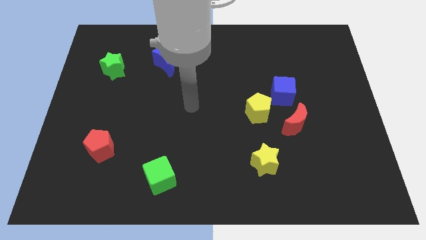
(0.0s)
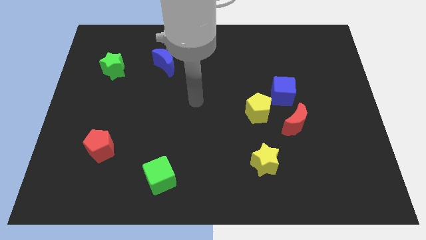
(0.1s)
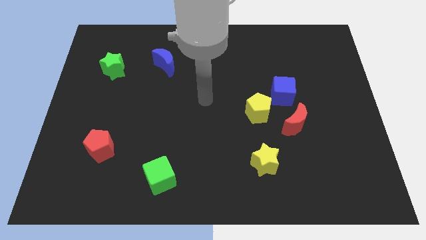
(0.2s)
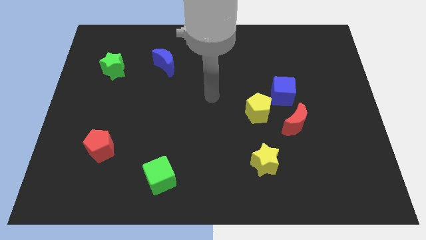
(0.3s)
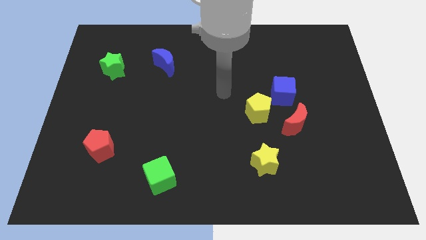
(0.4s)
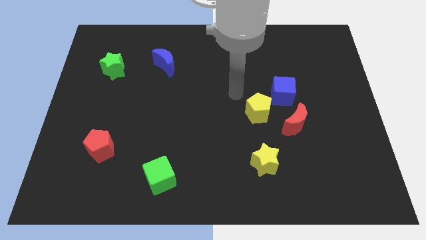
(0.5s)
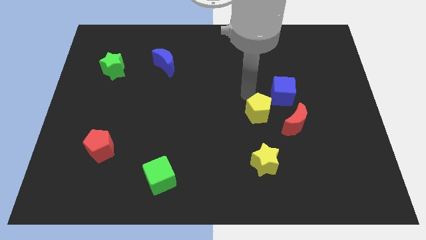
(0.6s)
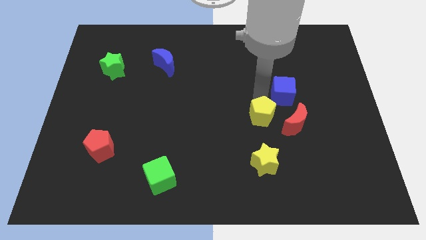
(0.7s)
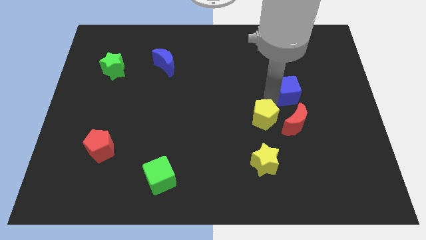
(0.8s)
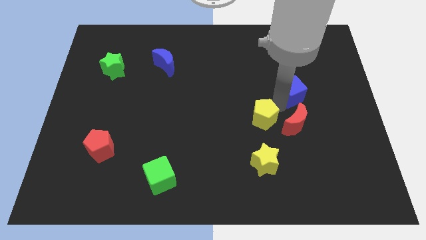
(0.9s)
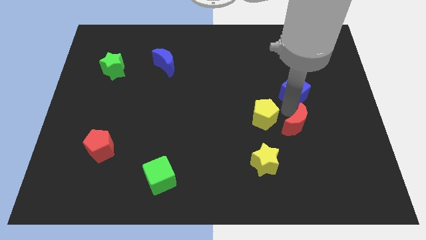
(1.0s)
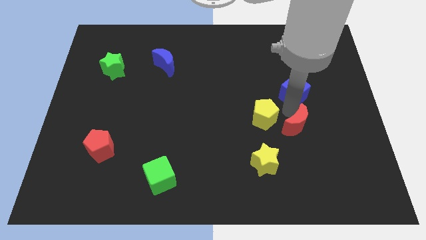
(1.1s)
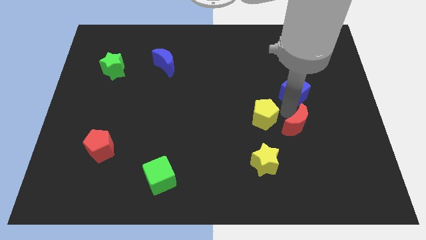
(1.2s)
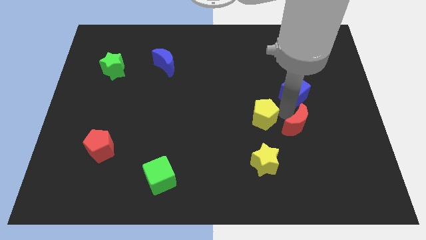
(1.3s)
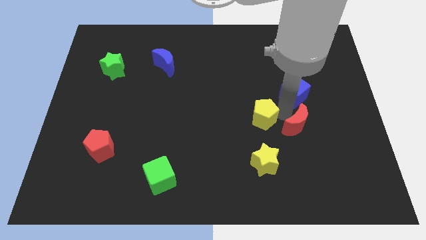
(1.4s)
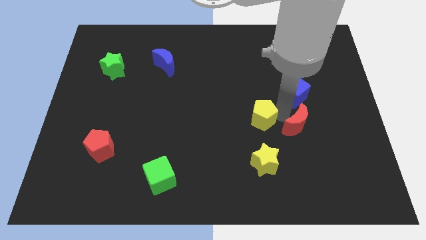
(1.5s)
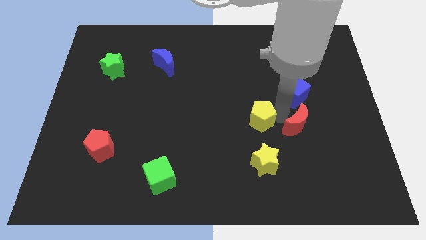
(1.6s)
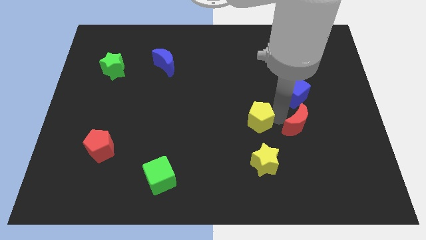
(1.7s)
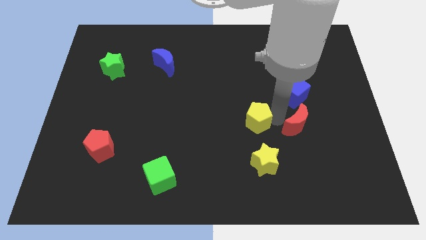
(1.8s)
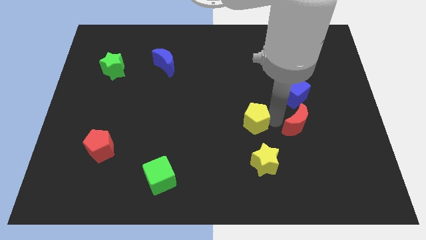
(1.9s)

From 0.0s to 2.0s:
pull the yellow pentagon apart from the blue cube and red moon

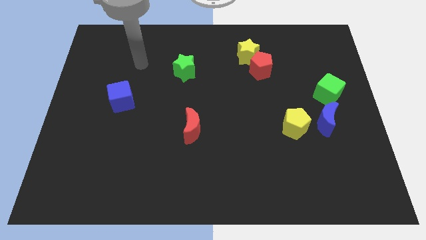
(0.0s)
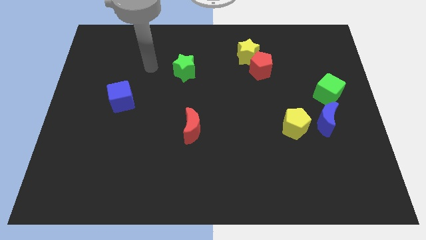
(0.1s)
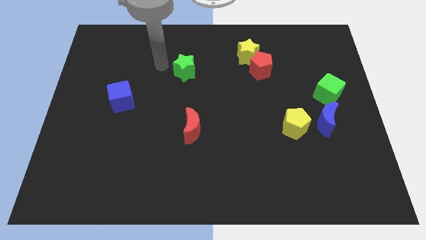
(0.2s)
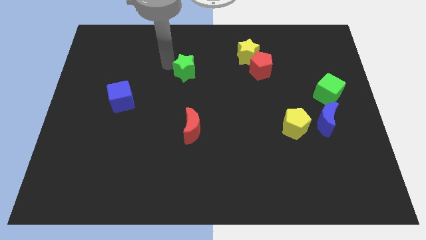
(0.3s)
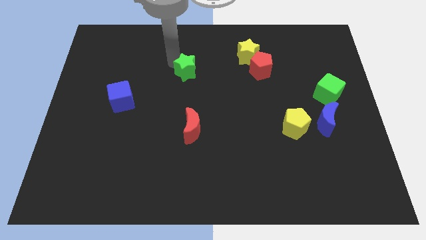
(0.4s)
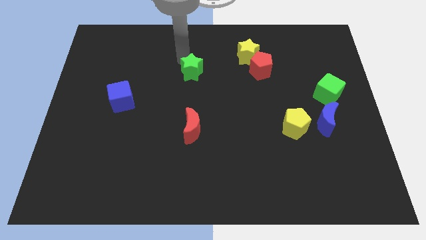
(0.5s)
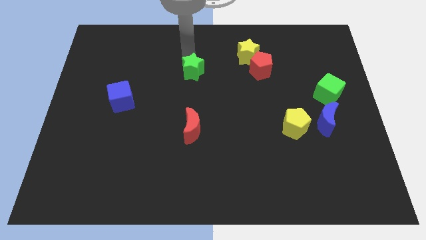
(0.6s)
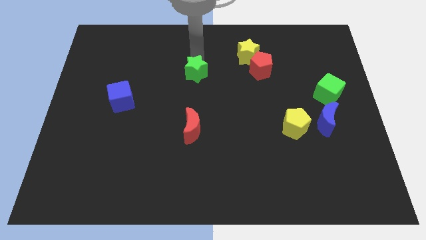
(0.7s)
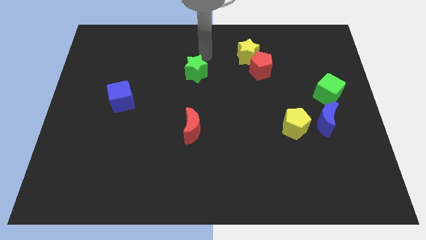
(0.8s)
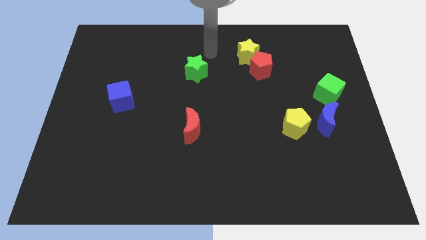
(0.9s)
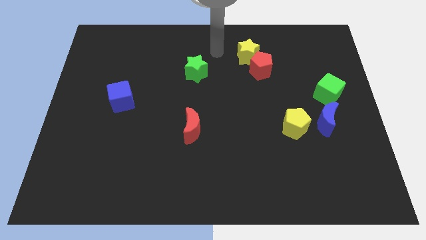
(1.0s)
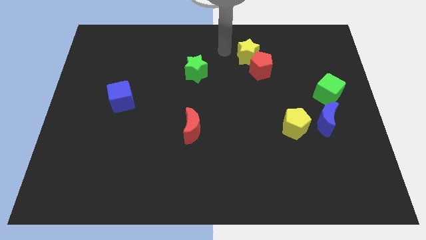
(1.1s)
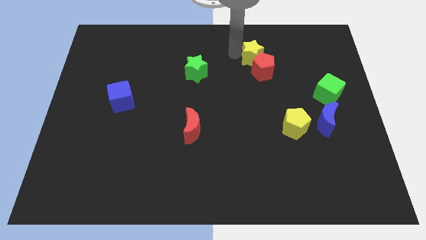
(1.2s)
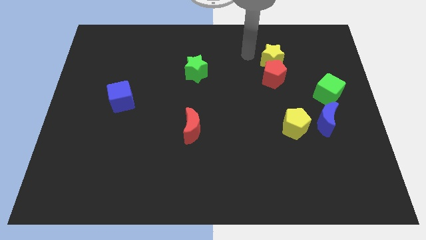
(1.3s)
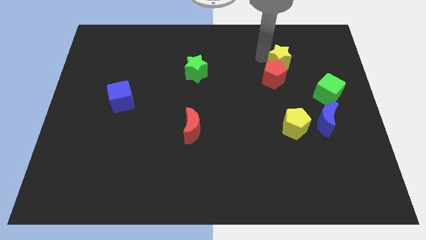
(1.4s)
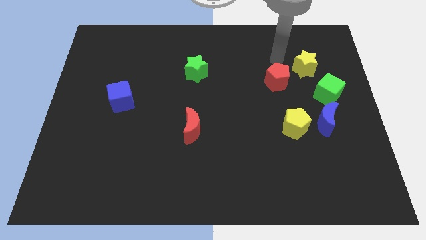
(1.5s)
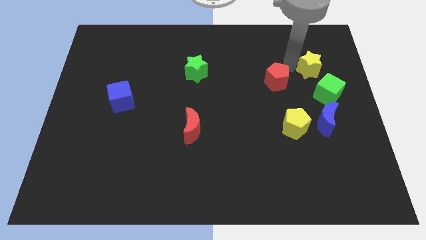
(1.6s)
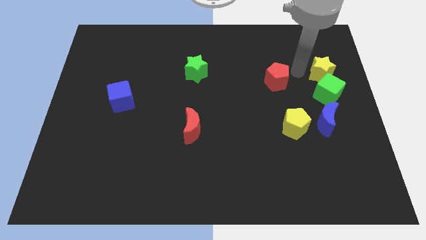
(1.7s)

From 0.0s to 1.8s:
pull the red pentagon apart from the yellow star

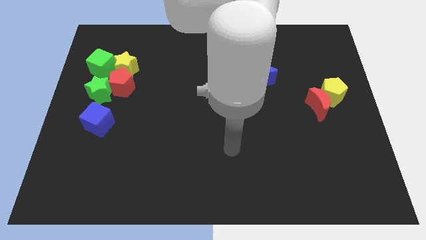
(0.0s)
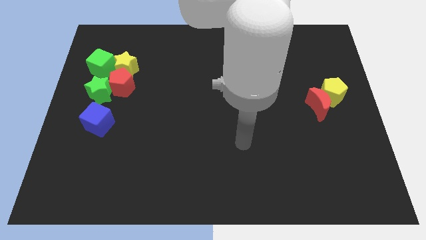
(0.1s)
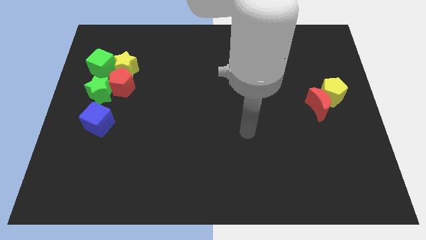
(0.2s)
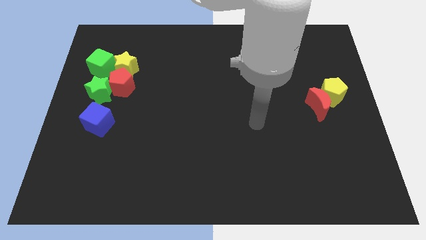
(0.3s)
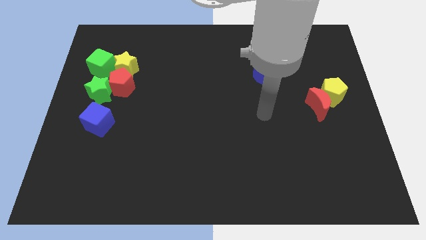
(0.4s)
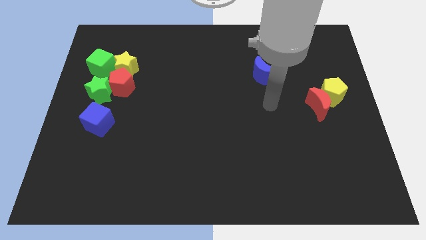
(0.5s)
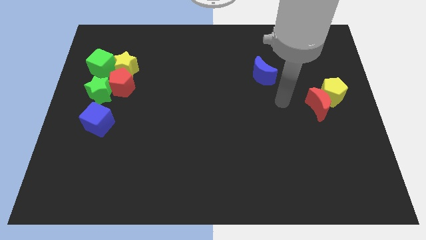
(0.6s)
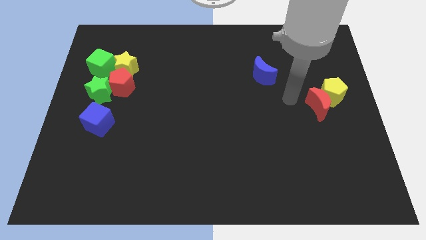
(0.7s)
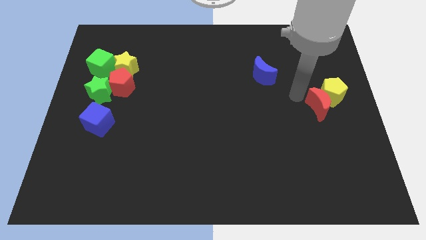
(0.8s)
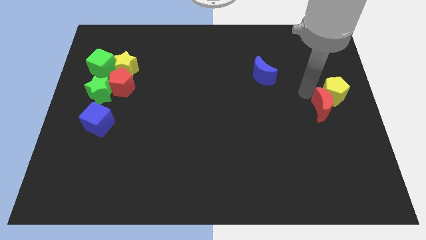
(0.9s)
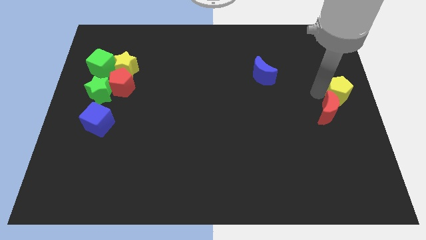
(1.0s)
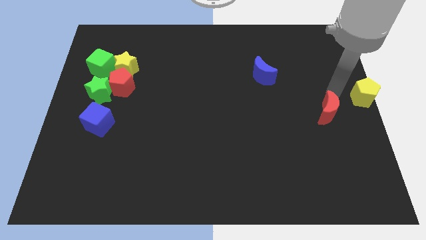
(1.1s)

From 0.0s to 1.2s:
move the red moon away from the yellow pentagon

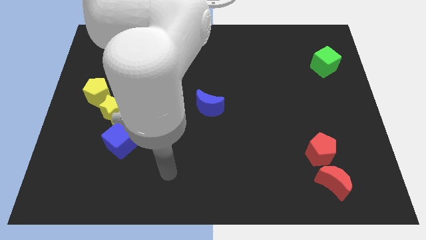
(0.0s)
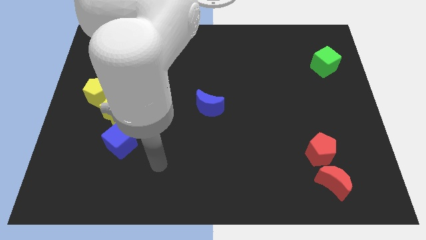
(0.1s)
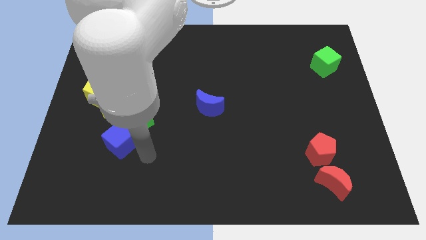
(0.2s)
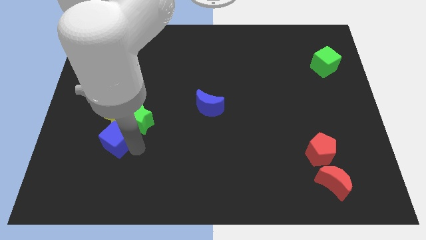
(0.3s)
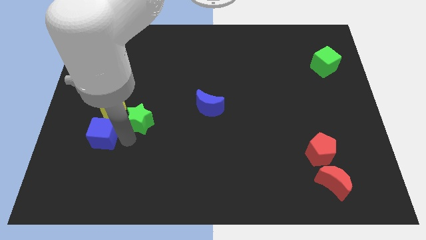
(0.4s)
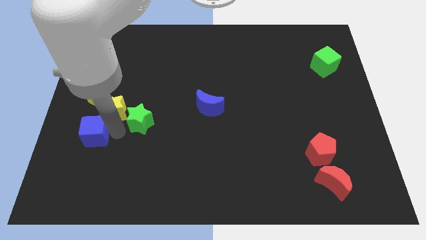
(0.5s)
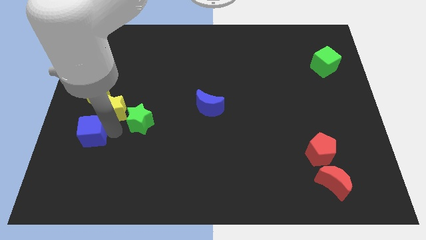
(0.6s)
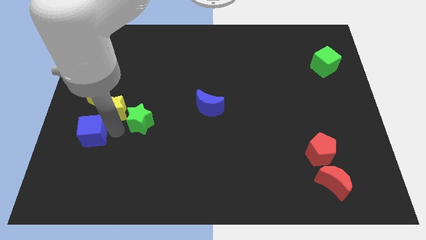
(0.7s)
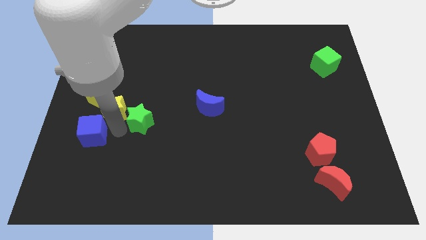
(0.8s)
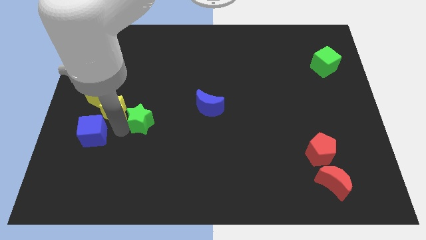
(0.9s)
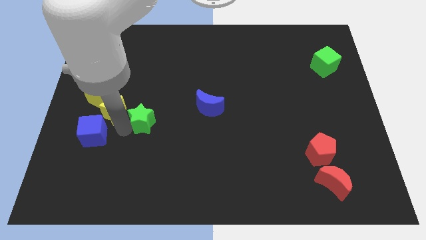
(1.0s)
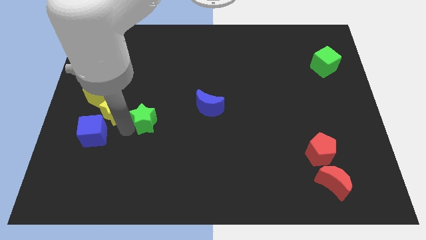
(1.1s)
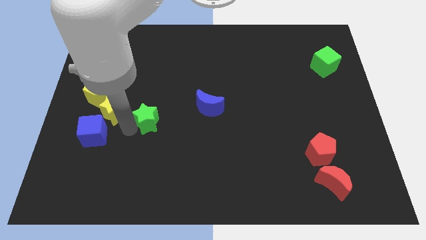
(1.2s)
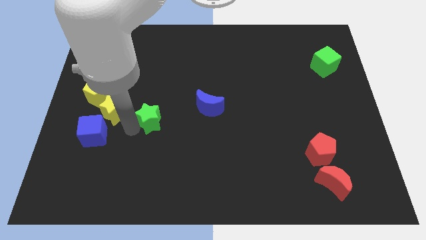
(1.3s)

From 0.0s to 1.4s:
move the green star away from the yellow star and blue cube

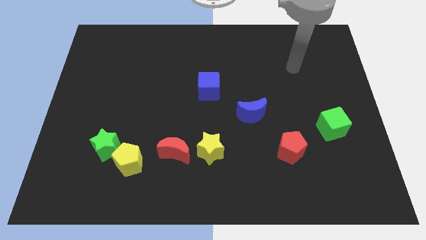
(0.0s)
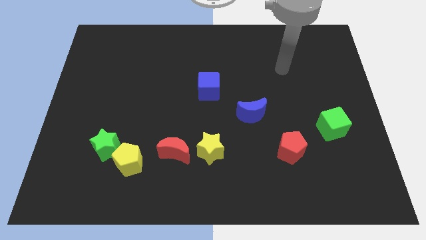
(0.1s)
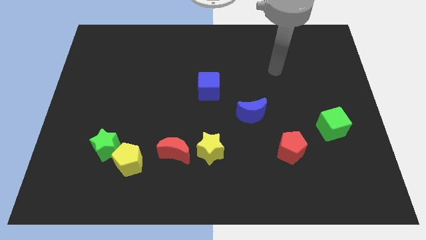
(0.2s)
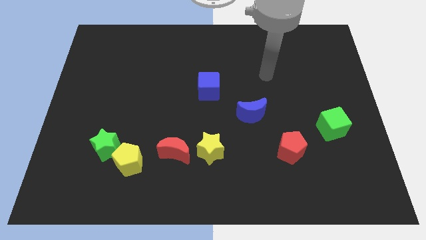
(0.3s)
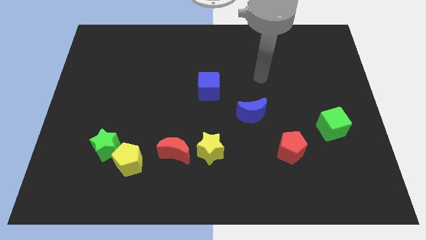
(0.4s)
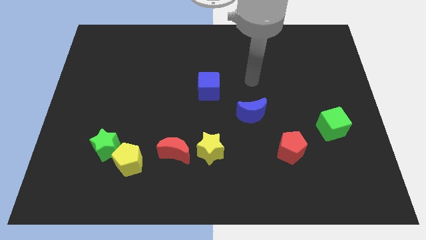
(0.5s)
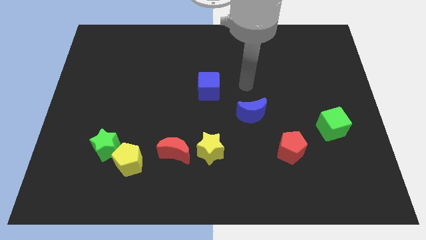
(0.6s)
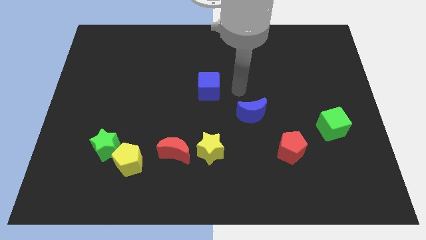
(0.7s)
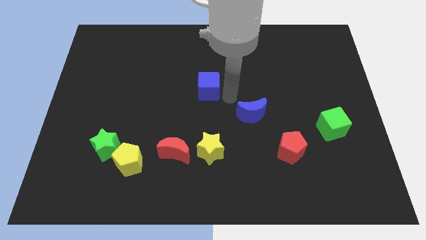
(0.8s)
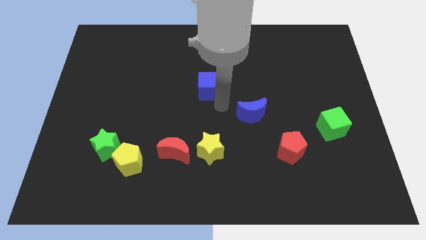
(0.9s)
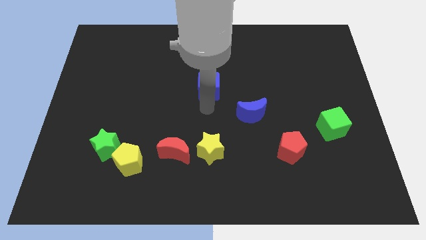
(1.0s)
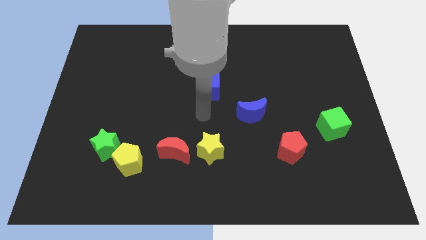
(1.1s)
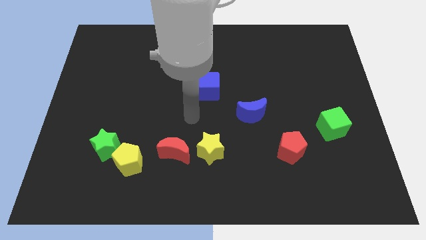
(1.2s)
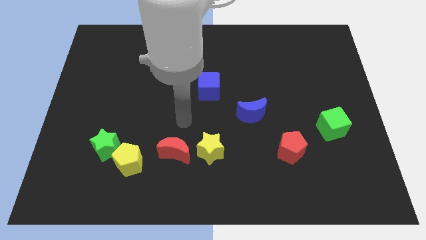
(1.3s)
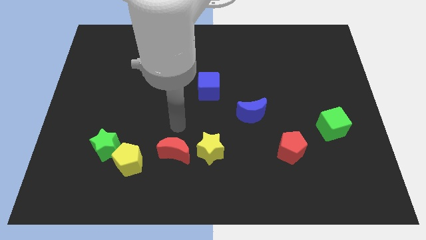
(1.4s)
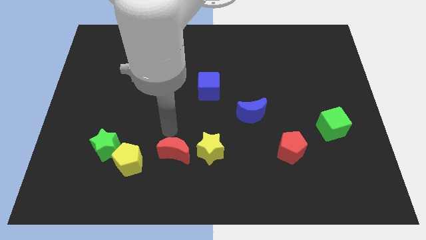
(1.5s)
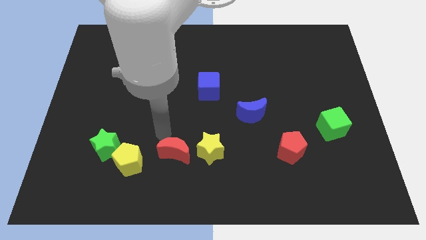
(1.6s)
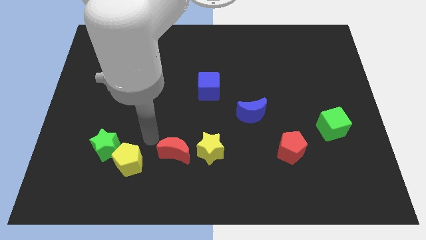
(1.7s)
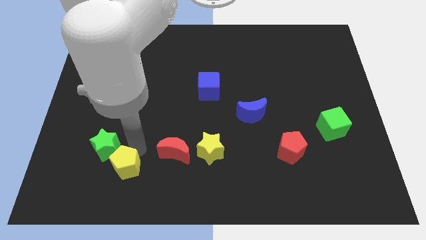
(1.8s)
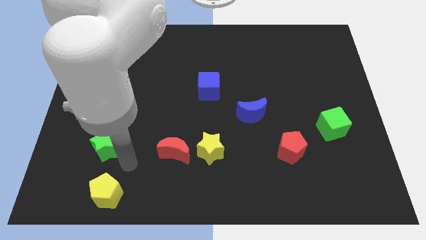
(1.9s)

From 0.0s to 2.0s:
move the green star away from the yellow pentagon

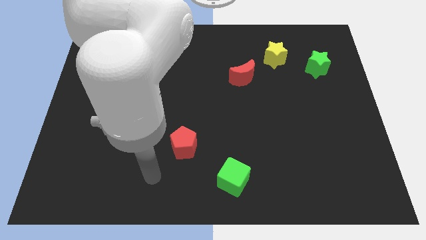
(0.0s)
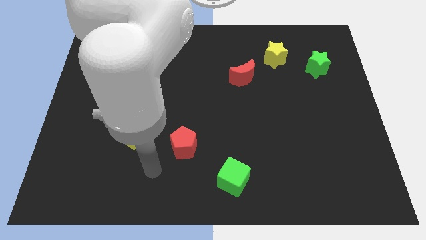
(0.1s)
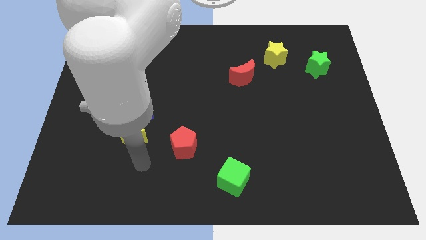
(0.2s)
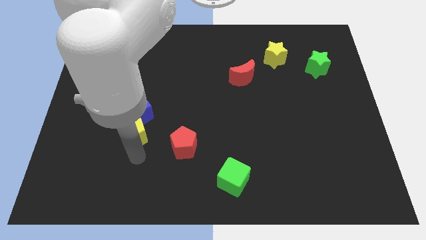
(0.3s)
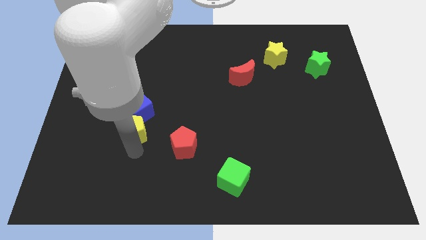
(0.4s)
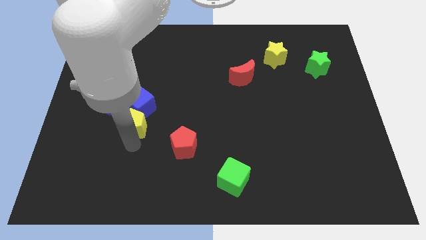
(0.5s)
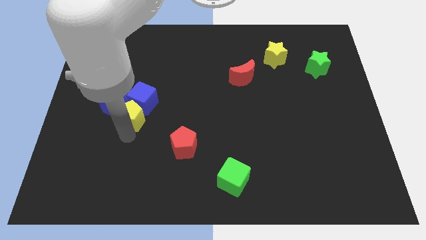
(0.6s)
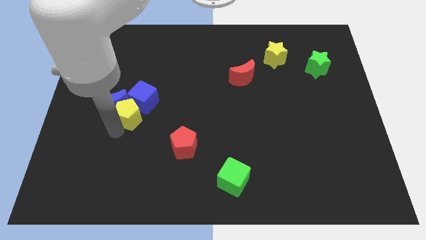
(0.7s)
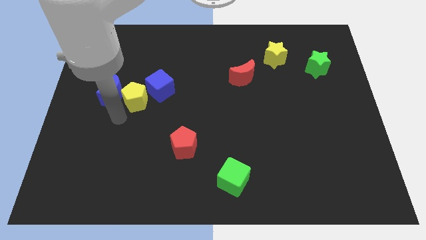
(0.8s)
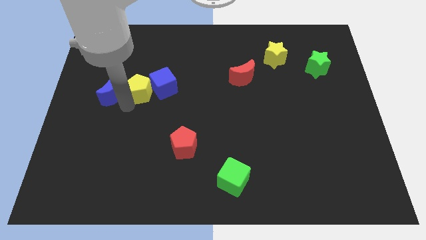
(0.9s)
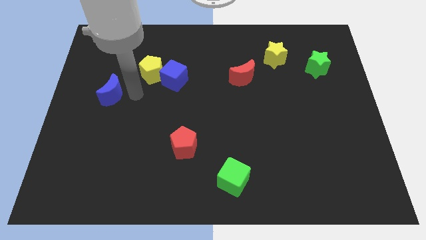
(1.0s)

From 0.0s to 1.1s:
move the blue cube away from the blue moon and yellow pentagon
